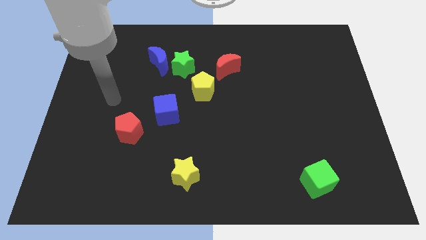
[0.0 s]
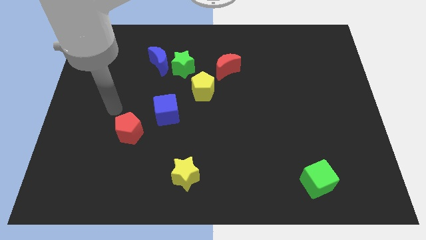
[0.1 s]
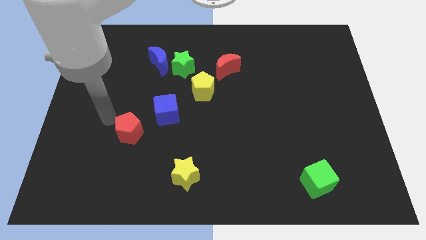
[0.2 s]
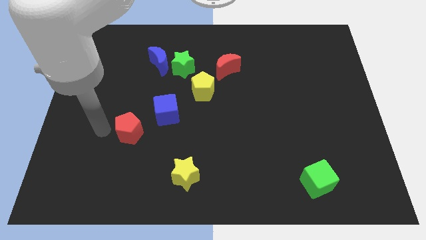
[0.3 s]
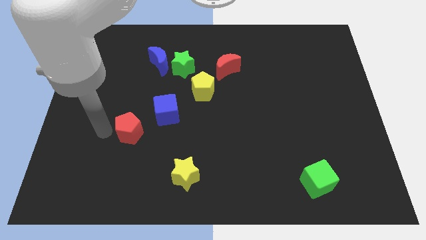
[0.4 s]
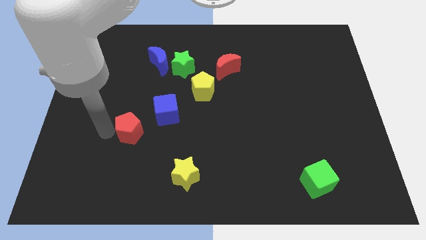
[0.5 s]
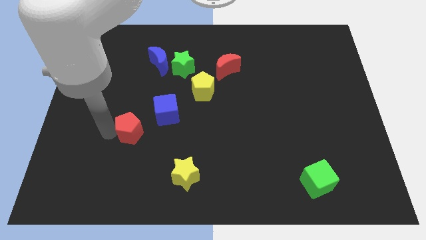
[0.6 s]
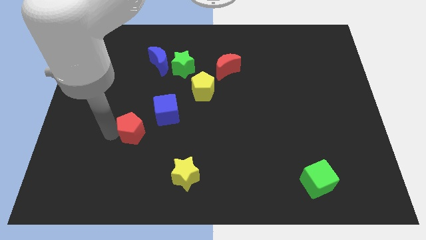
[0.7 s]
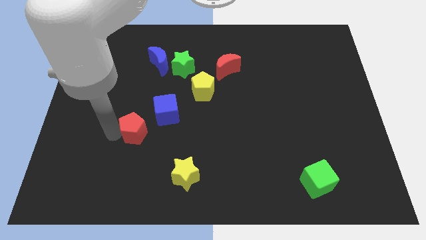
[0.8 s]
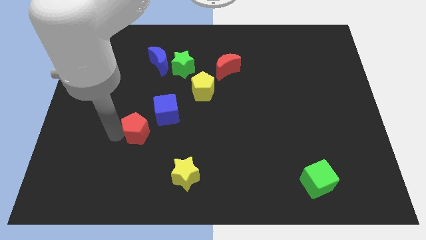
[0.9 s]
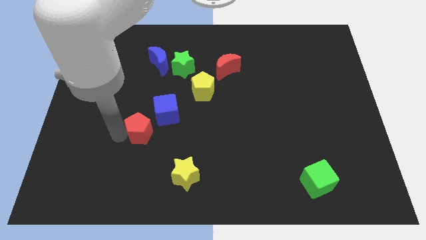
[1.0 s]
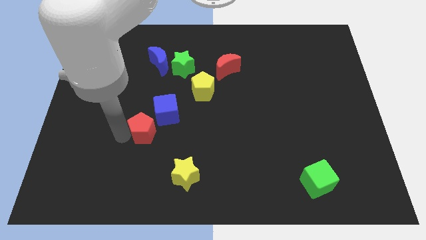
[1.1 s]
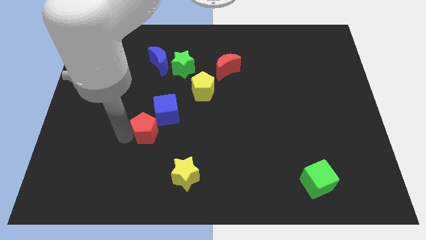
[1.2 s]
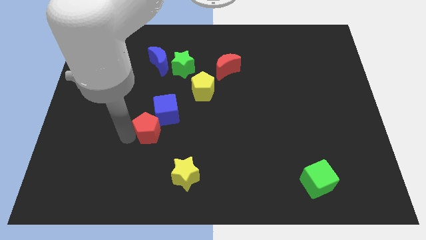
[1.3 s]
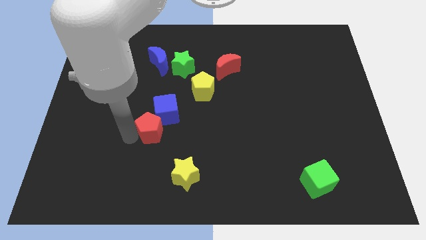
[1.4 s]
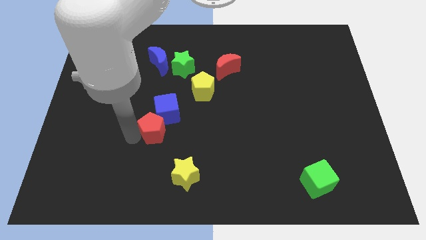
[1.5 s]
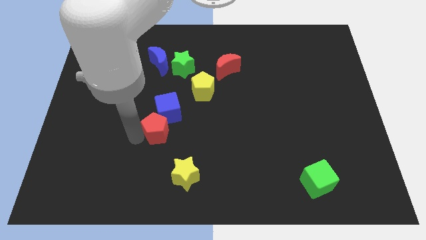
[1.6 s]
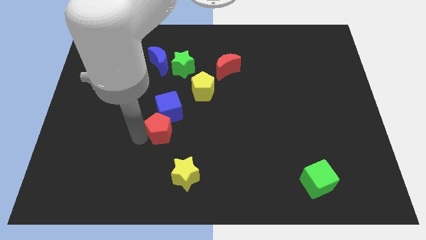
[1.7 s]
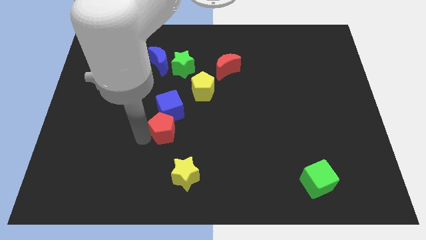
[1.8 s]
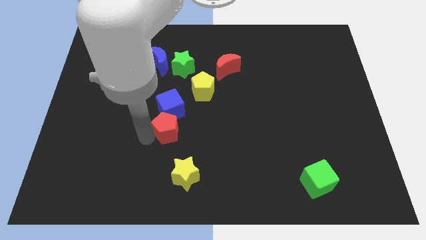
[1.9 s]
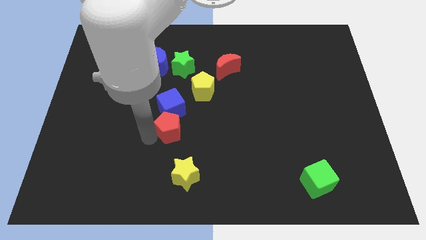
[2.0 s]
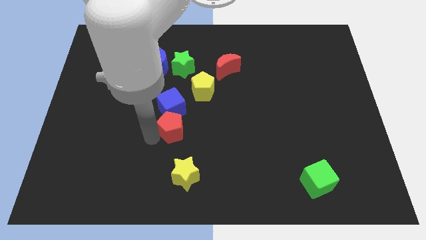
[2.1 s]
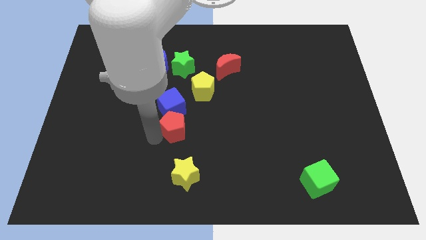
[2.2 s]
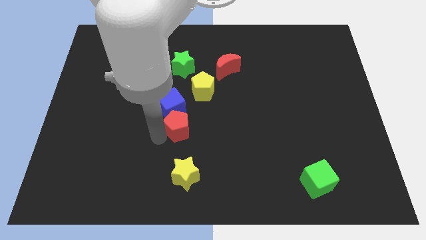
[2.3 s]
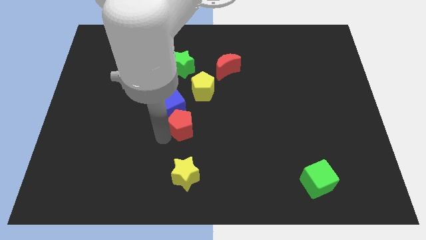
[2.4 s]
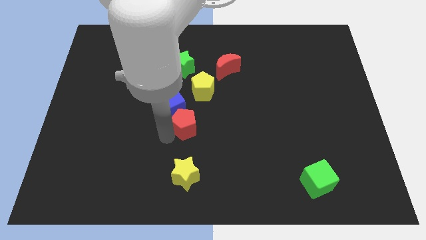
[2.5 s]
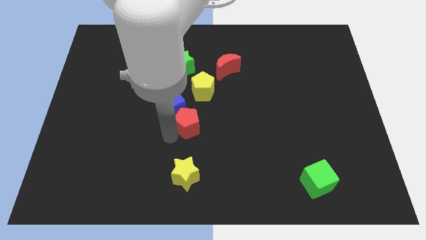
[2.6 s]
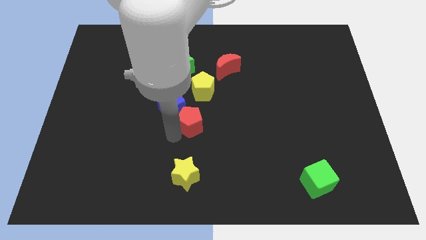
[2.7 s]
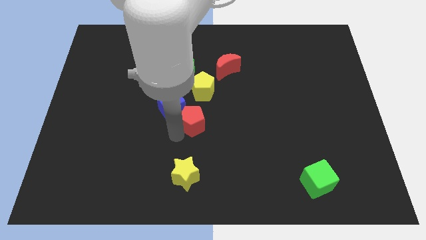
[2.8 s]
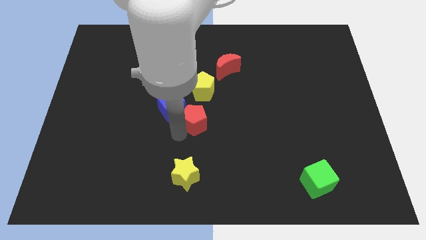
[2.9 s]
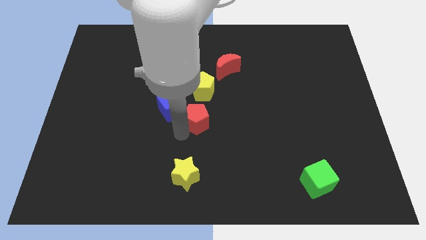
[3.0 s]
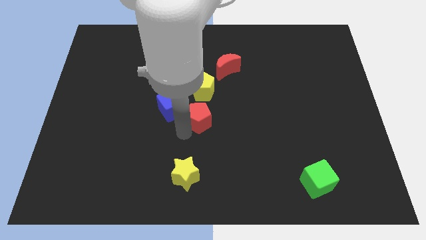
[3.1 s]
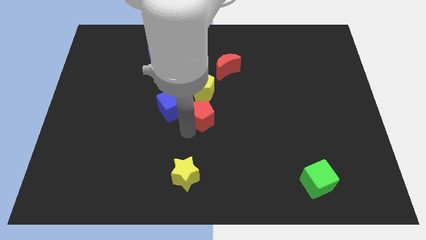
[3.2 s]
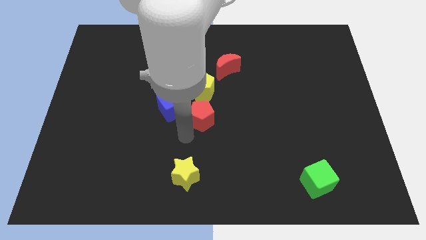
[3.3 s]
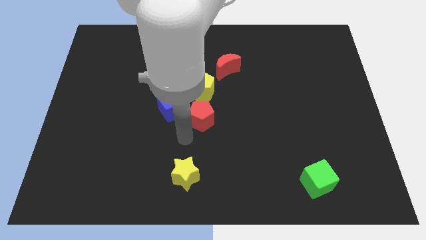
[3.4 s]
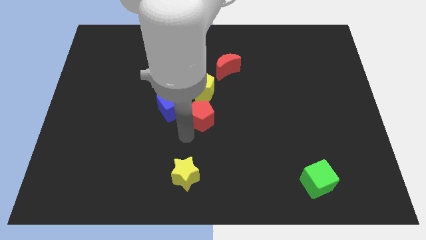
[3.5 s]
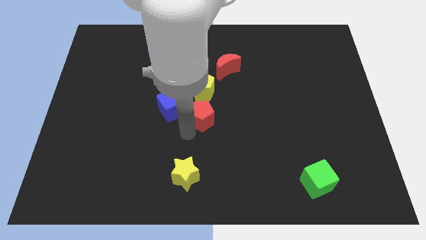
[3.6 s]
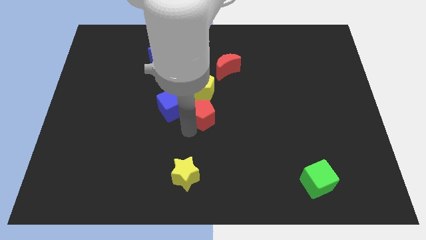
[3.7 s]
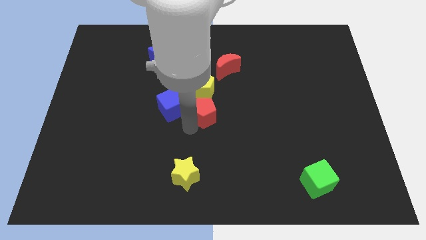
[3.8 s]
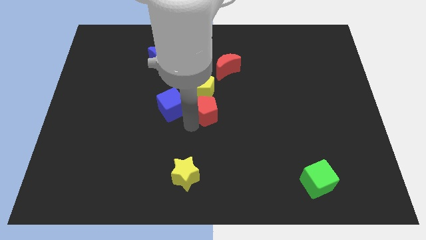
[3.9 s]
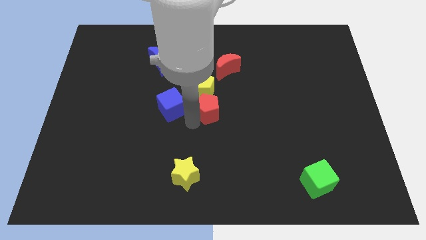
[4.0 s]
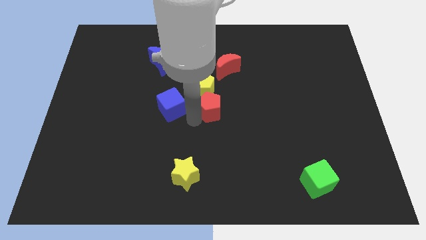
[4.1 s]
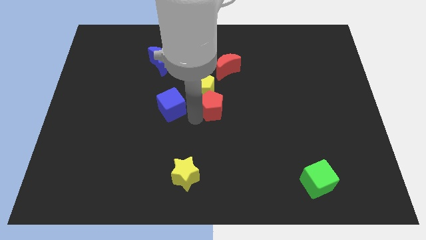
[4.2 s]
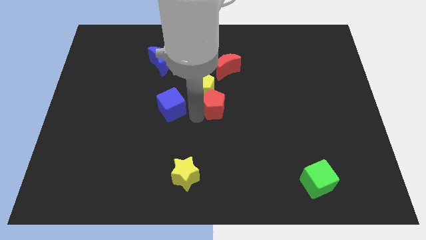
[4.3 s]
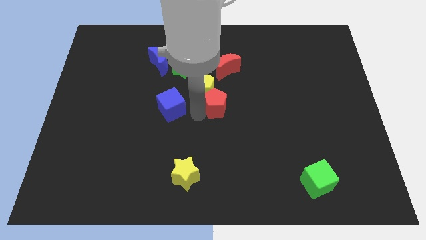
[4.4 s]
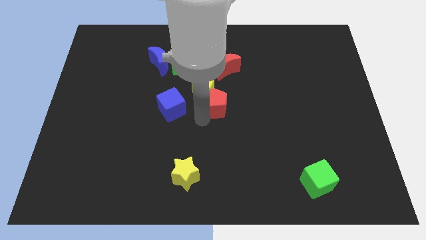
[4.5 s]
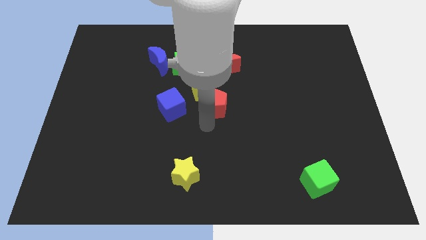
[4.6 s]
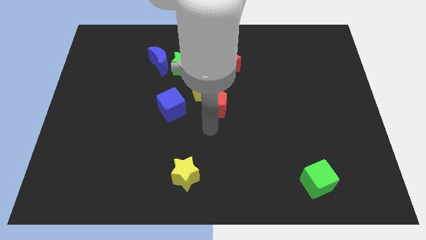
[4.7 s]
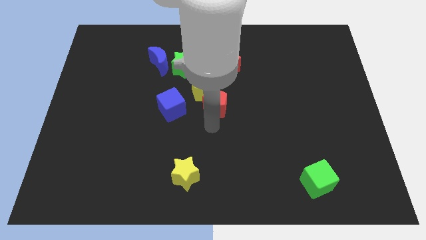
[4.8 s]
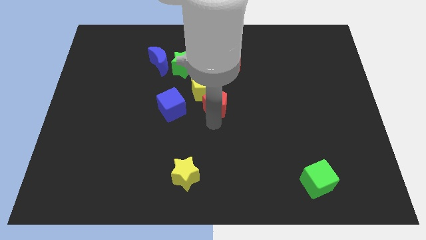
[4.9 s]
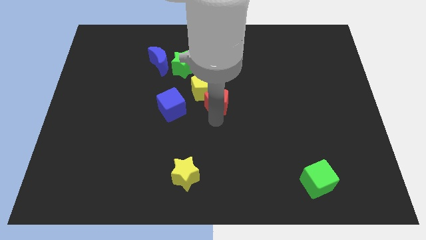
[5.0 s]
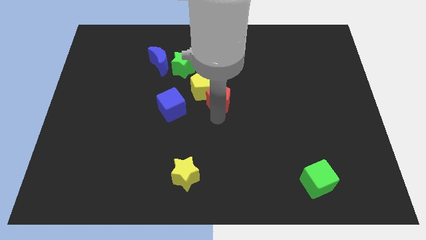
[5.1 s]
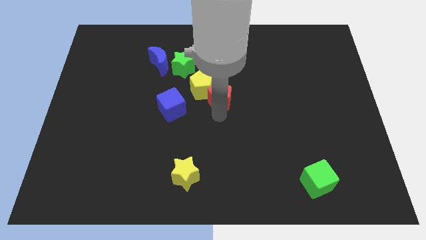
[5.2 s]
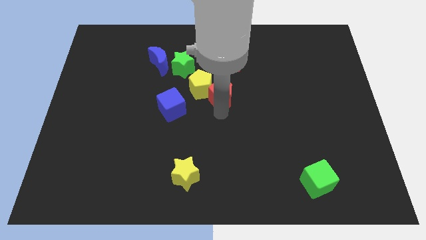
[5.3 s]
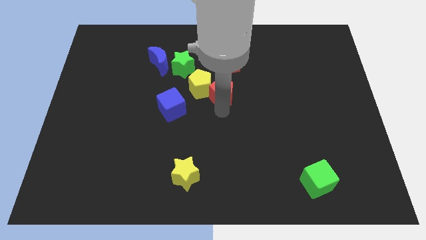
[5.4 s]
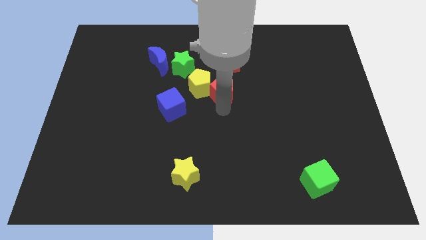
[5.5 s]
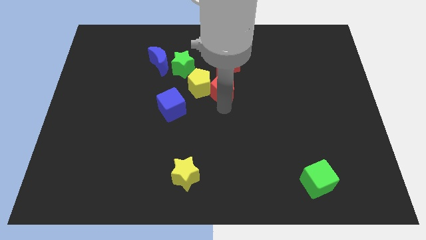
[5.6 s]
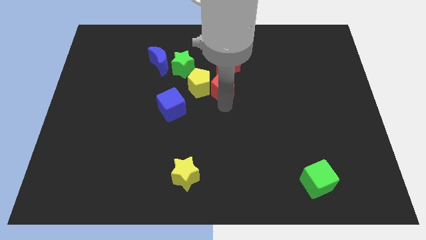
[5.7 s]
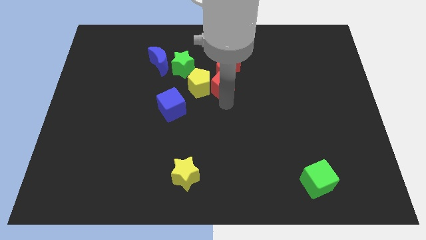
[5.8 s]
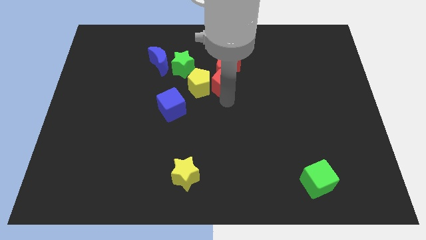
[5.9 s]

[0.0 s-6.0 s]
push the red pentagon next to the red moon

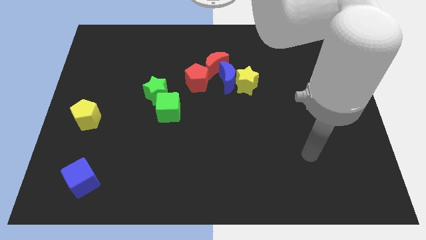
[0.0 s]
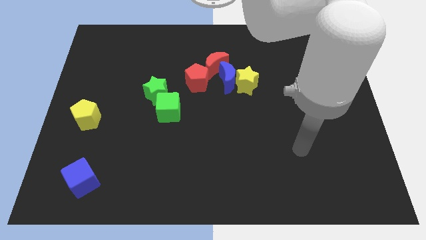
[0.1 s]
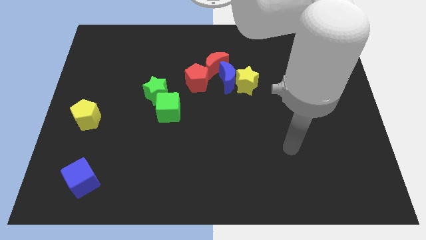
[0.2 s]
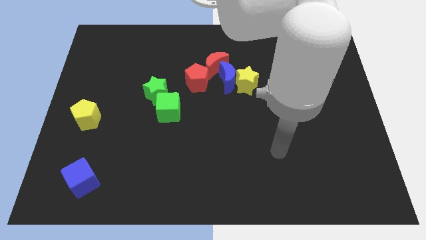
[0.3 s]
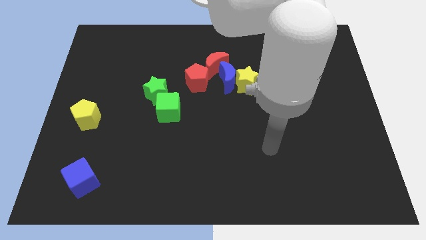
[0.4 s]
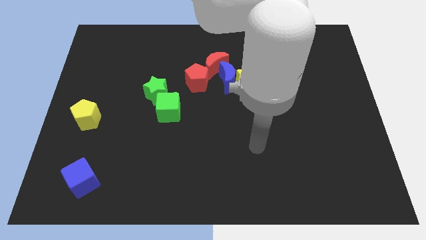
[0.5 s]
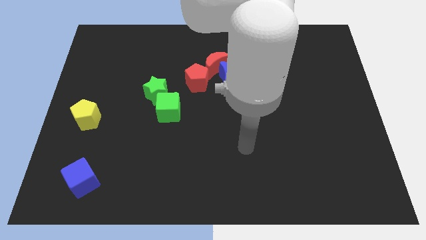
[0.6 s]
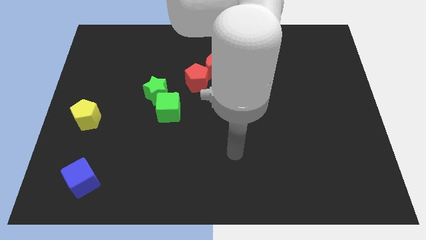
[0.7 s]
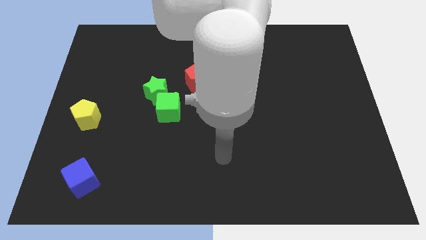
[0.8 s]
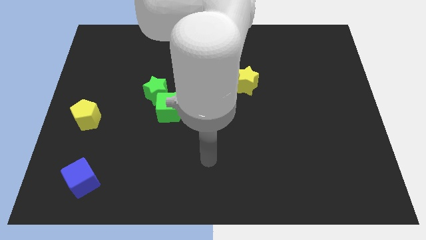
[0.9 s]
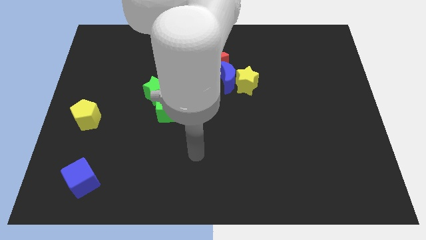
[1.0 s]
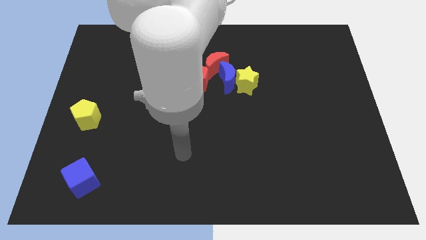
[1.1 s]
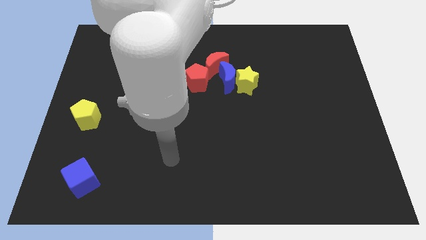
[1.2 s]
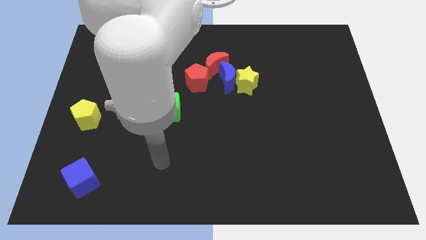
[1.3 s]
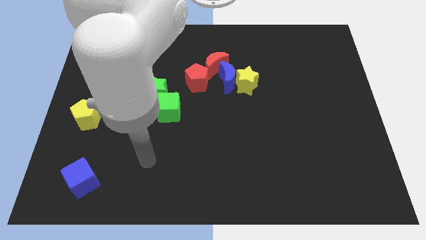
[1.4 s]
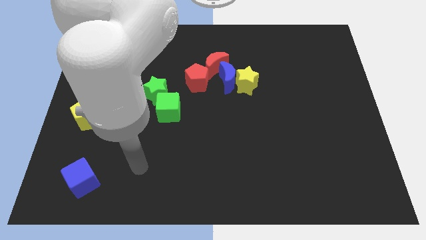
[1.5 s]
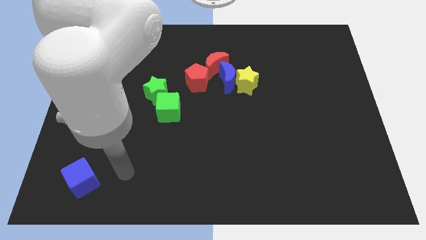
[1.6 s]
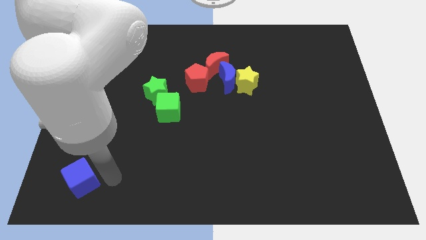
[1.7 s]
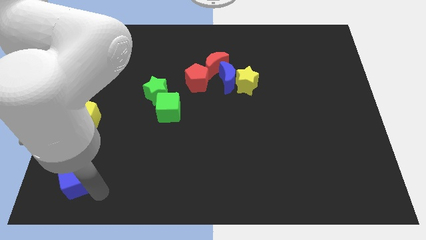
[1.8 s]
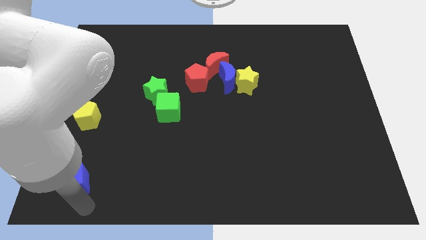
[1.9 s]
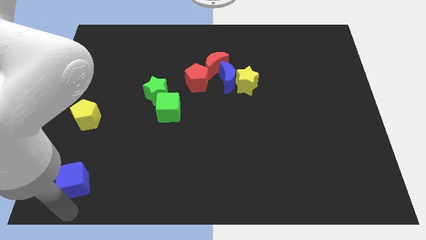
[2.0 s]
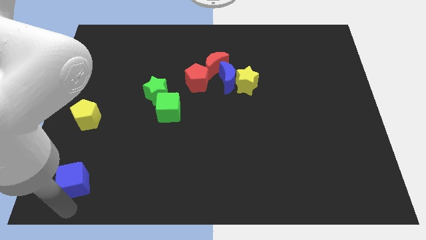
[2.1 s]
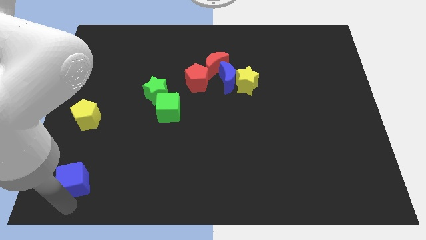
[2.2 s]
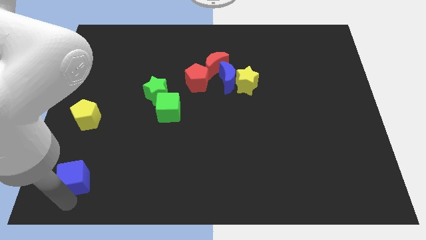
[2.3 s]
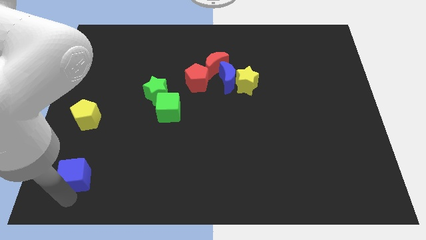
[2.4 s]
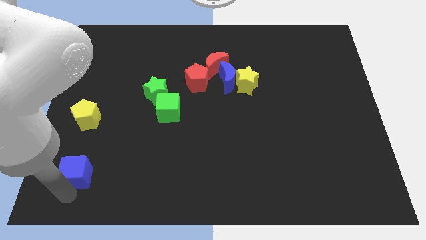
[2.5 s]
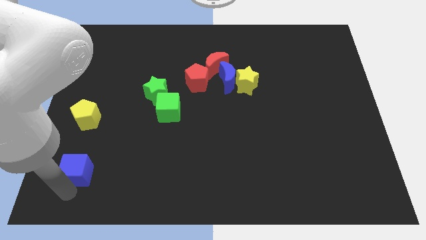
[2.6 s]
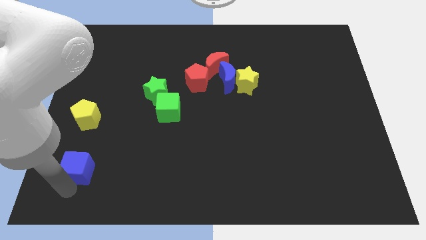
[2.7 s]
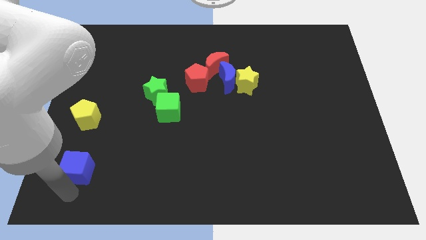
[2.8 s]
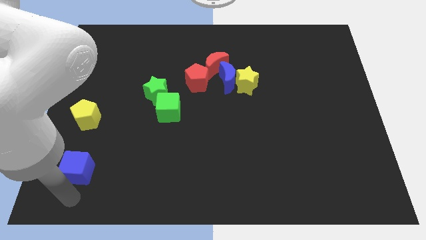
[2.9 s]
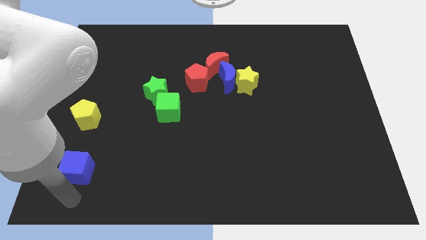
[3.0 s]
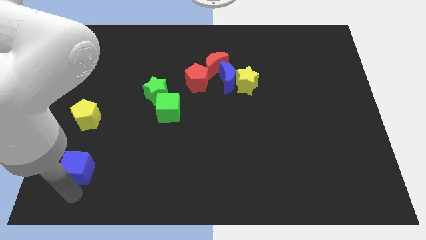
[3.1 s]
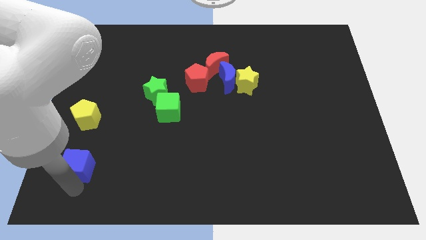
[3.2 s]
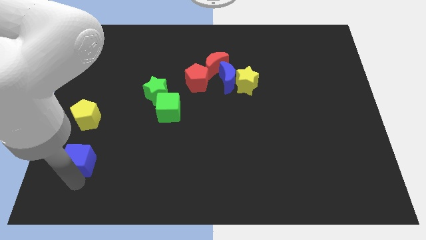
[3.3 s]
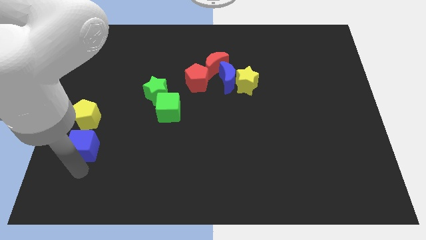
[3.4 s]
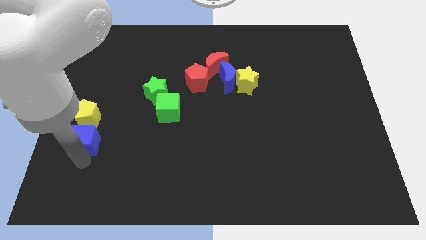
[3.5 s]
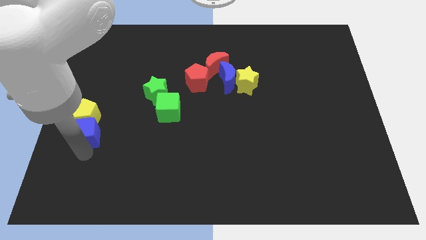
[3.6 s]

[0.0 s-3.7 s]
move the blue cube next to the yellow pentagon
